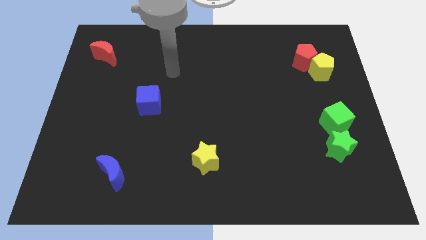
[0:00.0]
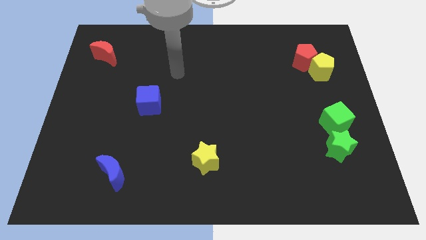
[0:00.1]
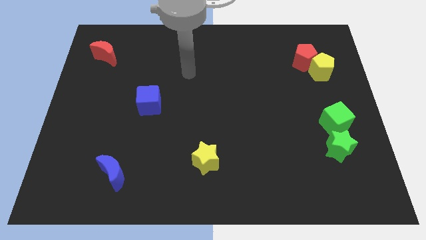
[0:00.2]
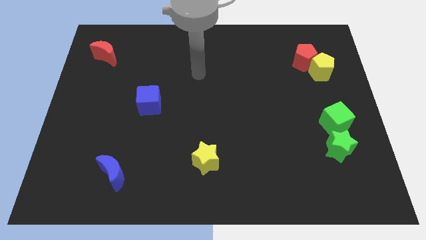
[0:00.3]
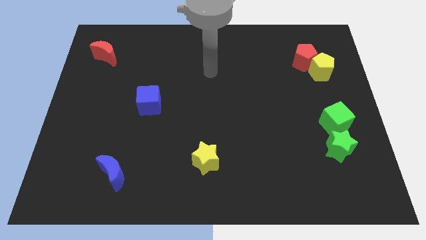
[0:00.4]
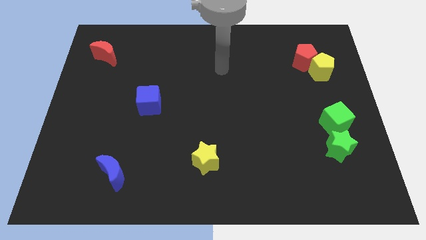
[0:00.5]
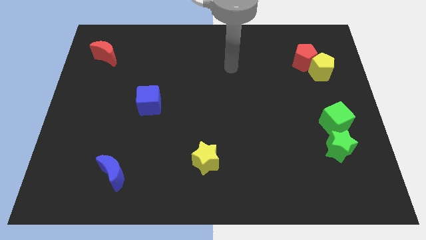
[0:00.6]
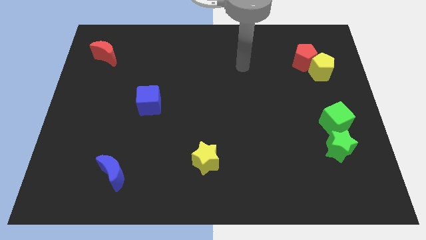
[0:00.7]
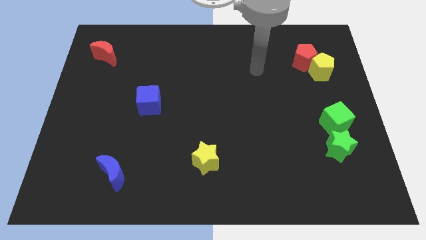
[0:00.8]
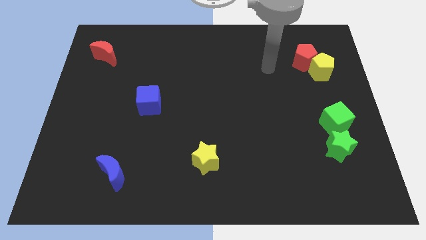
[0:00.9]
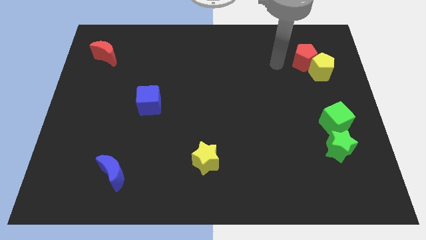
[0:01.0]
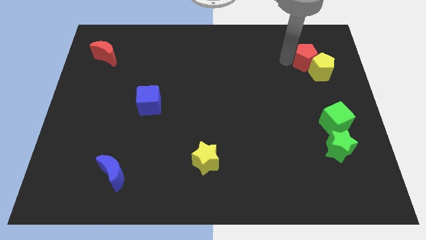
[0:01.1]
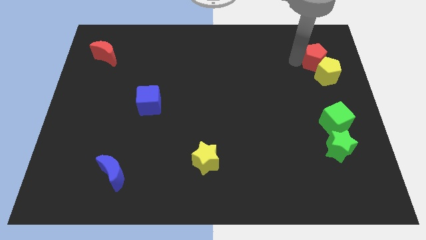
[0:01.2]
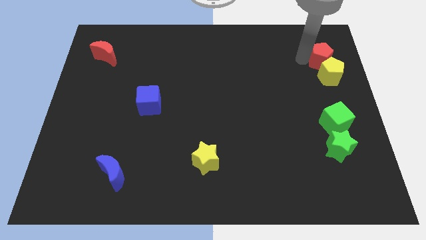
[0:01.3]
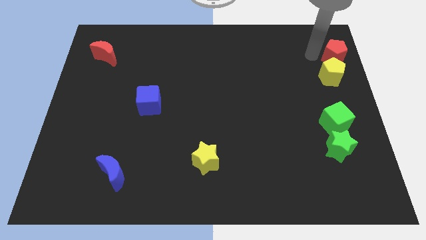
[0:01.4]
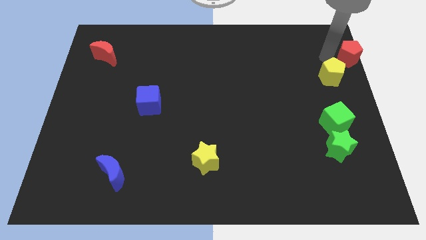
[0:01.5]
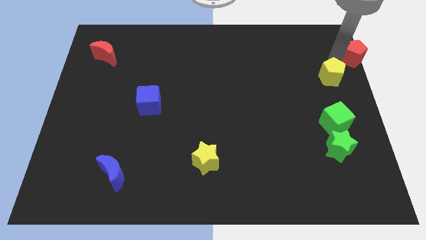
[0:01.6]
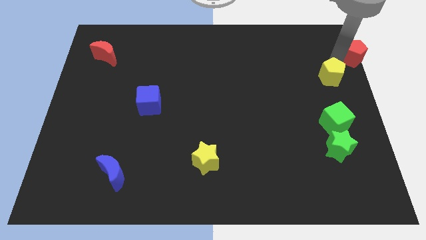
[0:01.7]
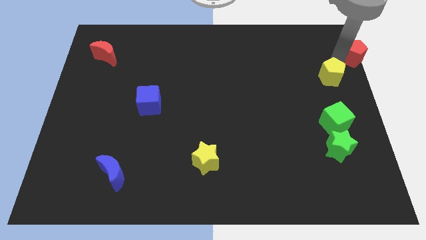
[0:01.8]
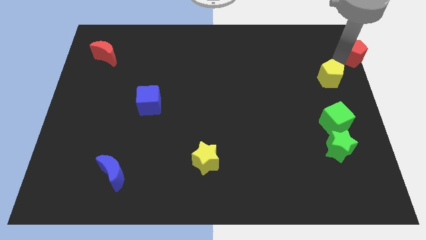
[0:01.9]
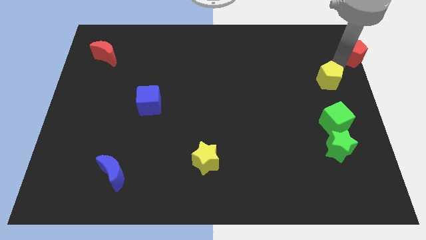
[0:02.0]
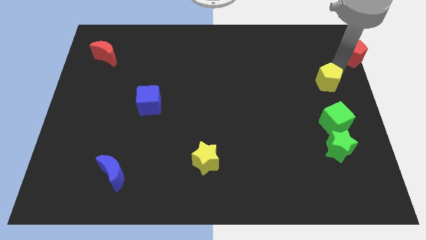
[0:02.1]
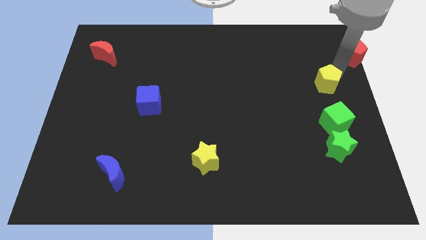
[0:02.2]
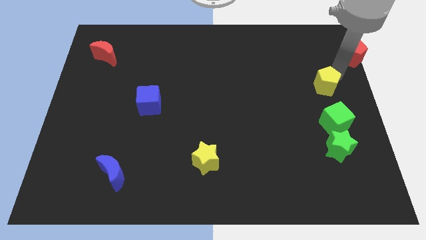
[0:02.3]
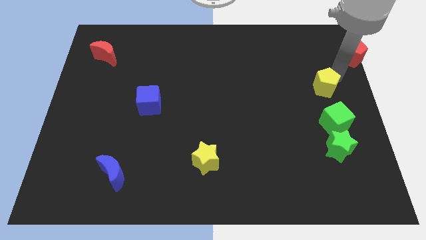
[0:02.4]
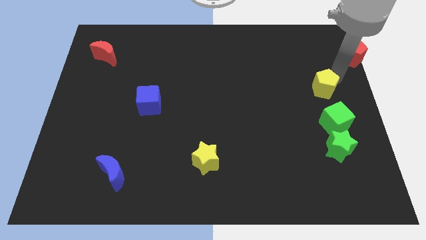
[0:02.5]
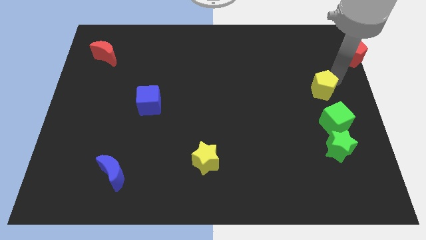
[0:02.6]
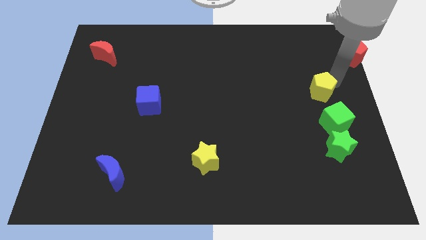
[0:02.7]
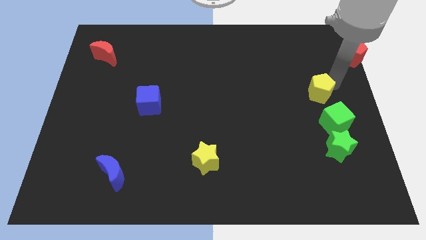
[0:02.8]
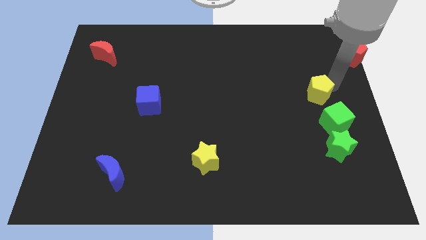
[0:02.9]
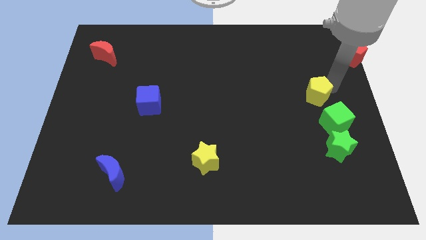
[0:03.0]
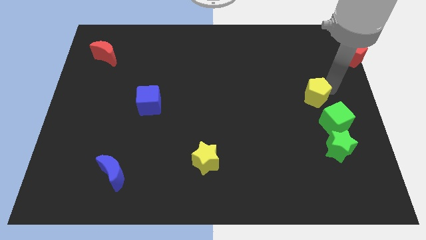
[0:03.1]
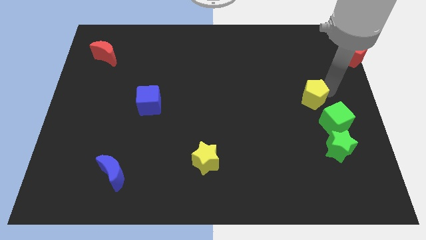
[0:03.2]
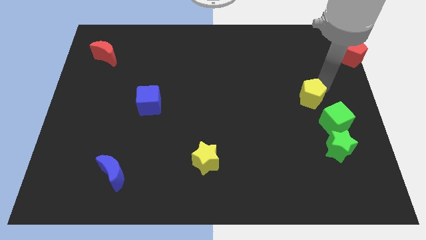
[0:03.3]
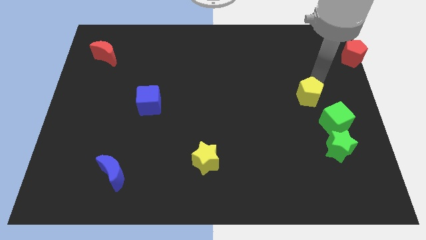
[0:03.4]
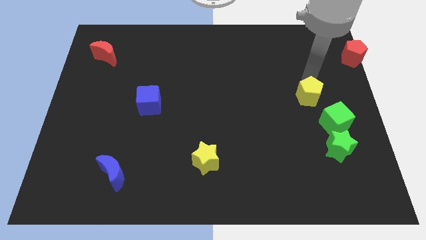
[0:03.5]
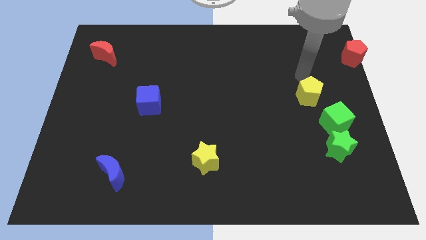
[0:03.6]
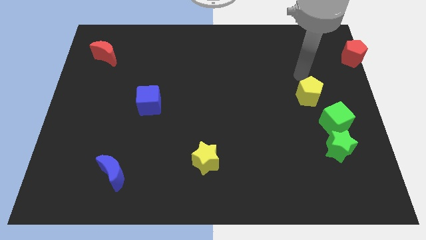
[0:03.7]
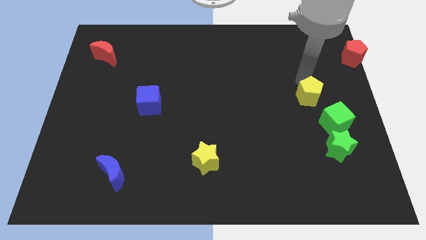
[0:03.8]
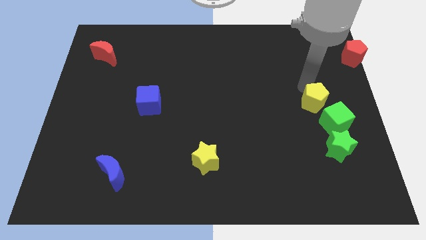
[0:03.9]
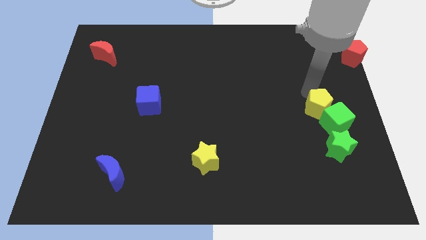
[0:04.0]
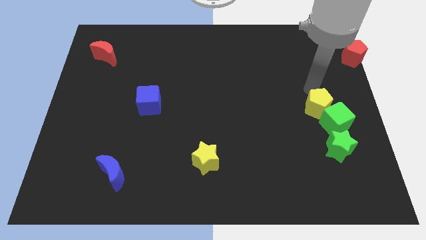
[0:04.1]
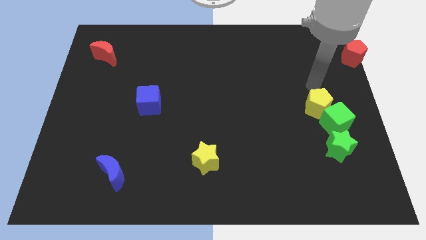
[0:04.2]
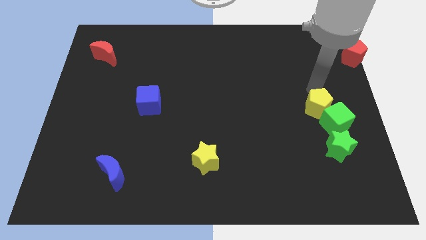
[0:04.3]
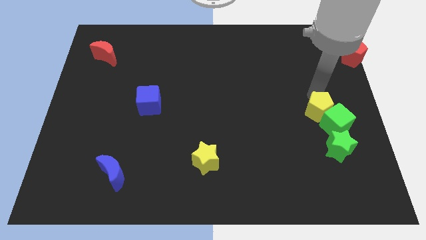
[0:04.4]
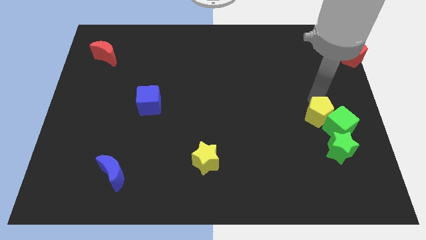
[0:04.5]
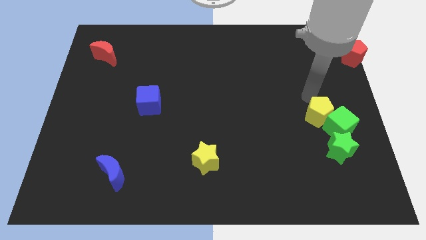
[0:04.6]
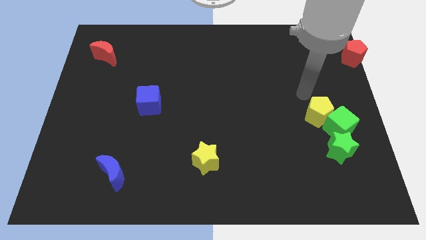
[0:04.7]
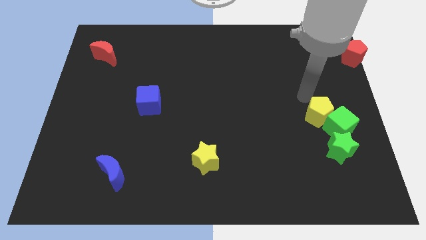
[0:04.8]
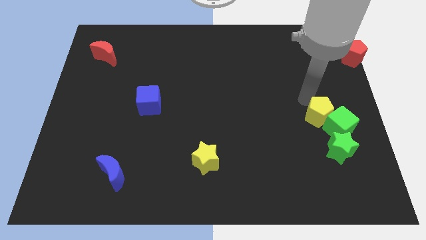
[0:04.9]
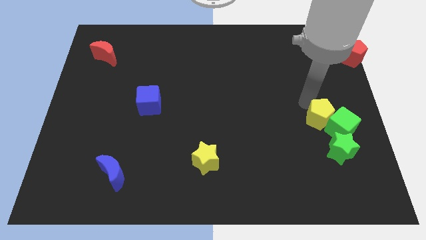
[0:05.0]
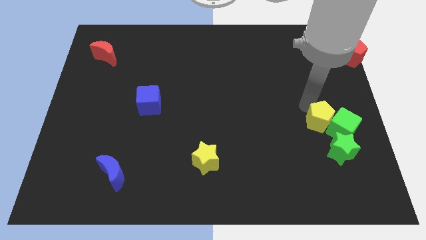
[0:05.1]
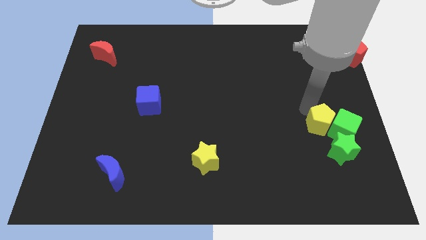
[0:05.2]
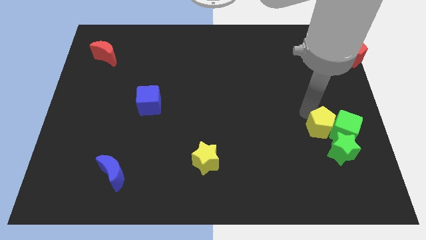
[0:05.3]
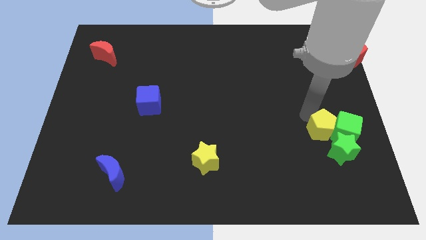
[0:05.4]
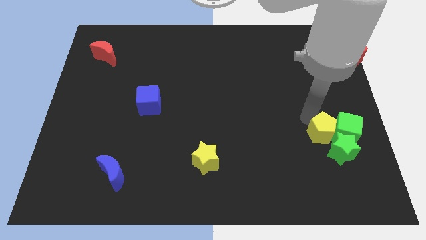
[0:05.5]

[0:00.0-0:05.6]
push the yellow pentagon to the green star

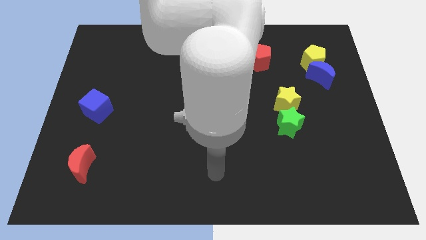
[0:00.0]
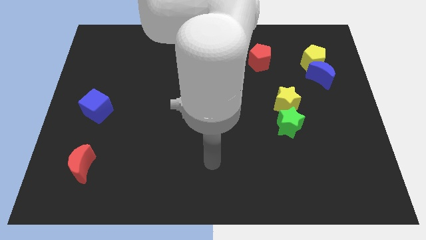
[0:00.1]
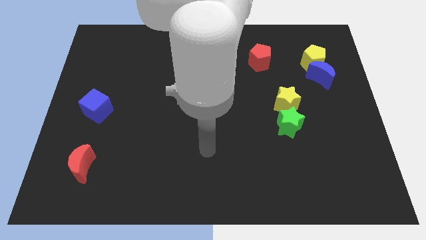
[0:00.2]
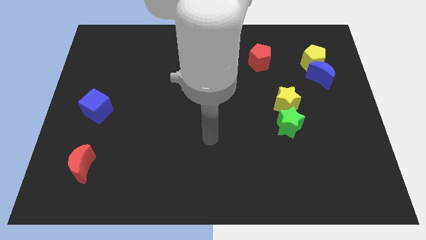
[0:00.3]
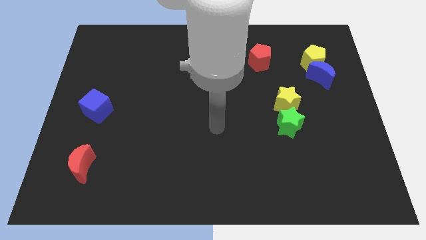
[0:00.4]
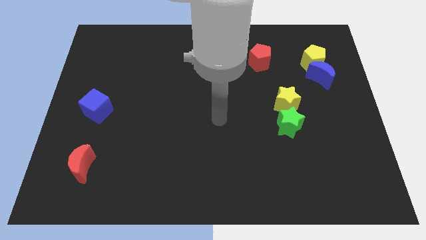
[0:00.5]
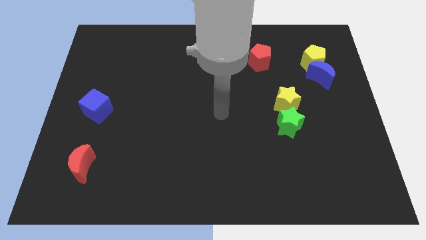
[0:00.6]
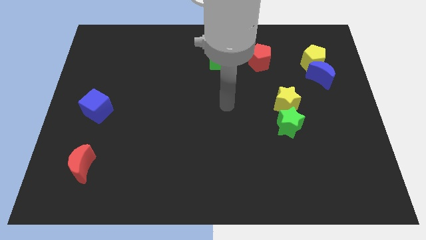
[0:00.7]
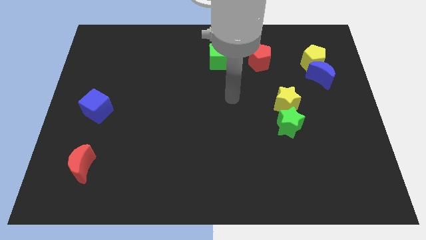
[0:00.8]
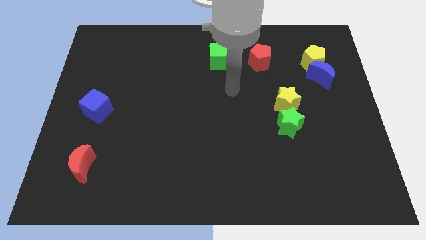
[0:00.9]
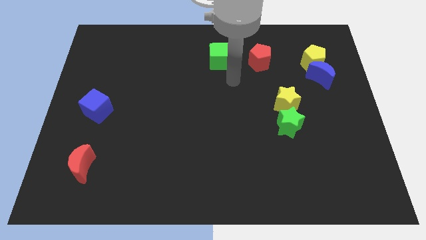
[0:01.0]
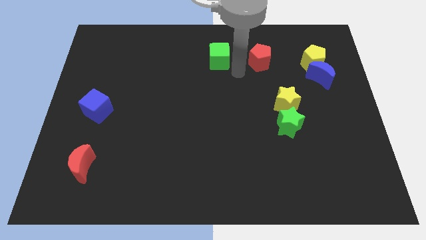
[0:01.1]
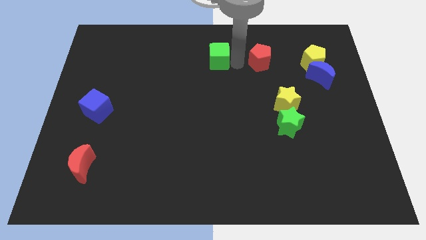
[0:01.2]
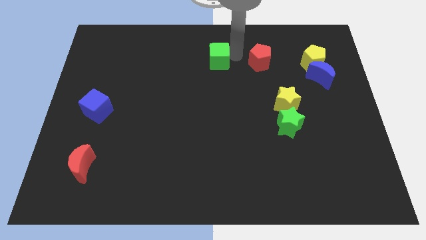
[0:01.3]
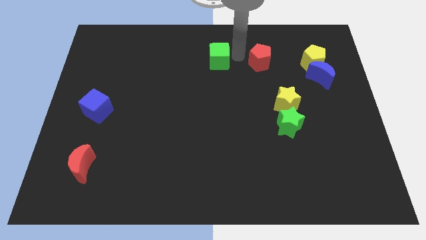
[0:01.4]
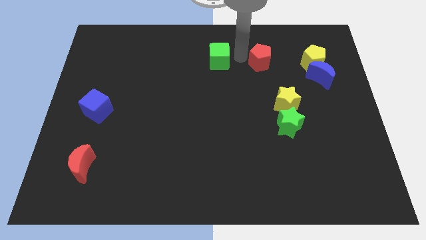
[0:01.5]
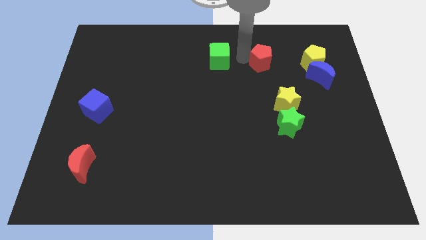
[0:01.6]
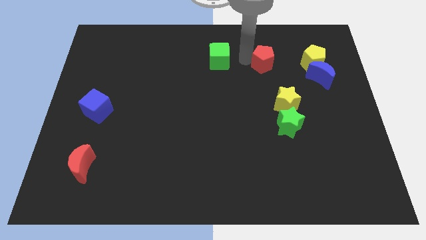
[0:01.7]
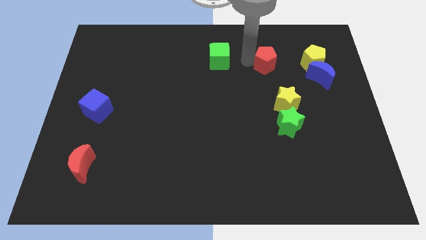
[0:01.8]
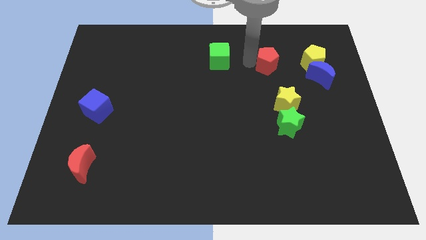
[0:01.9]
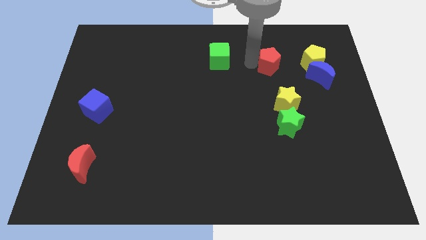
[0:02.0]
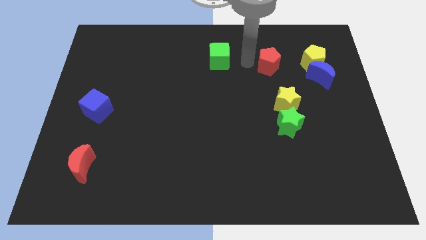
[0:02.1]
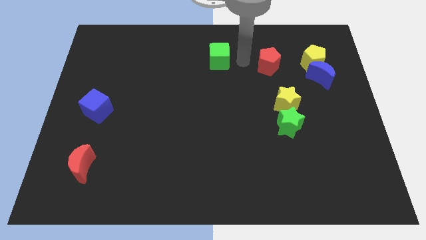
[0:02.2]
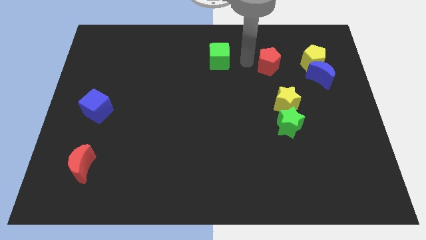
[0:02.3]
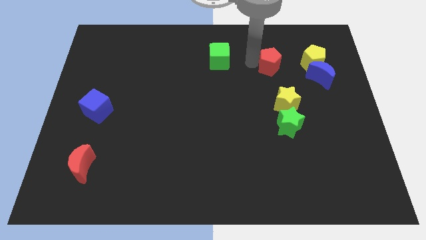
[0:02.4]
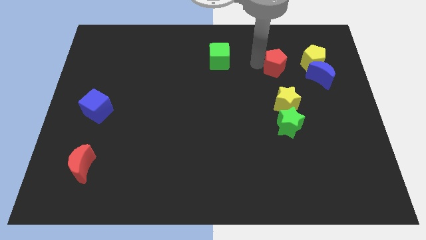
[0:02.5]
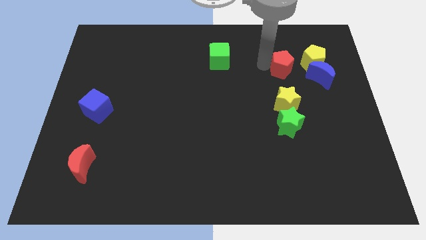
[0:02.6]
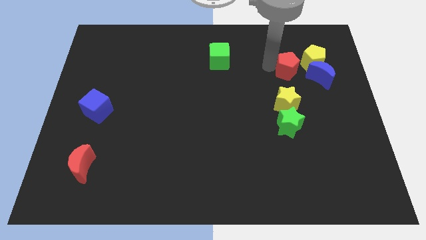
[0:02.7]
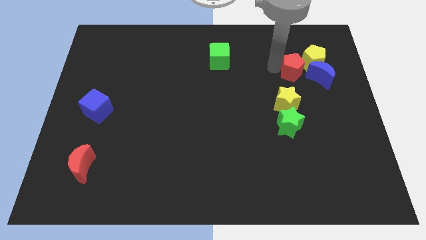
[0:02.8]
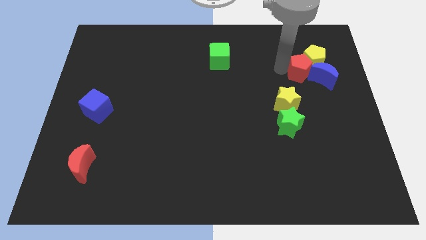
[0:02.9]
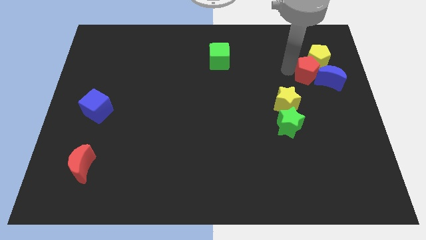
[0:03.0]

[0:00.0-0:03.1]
move the red pentagon next to the blue moon
